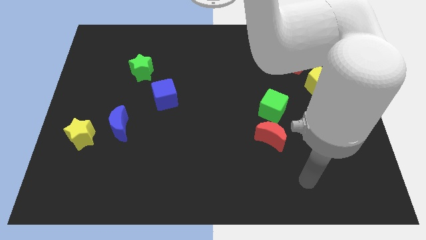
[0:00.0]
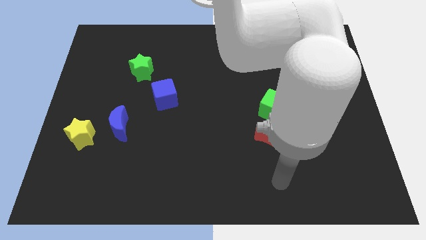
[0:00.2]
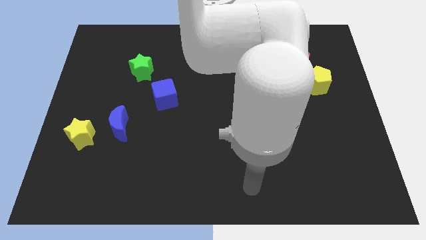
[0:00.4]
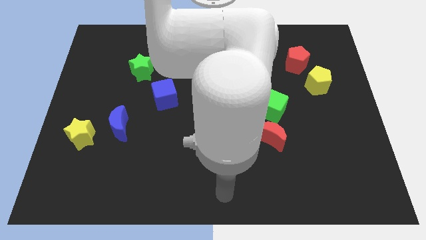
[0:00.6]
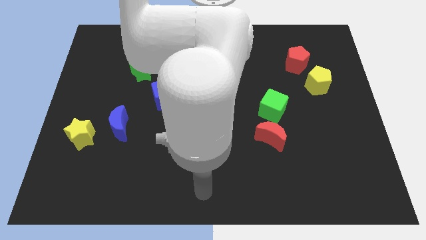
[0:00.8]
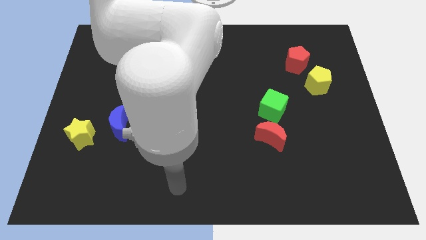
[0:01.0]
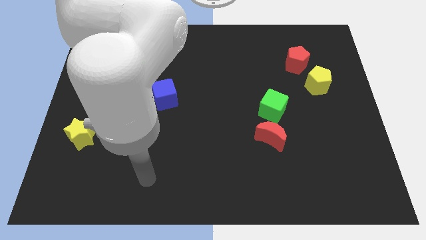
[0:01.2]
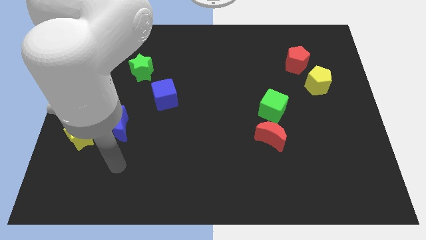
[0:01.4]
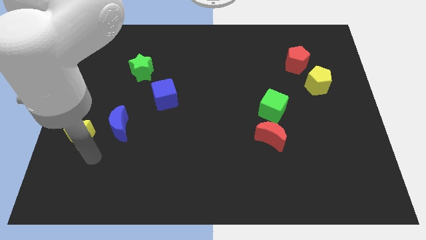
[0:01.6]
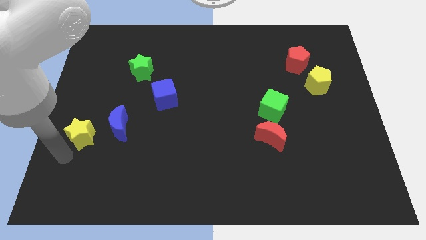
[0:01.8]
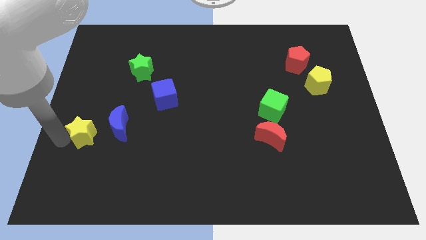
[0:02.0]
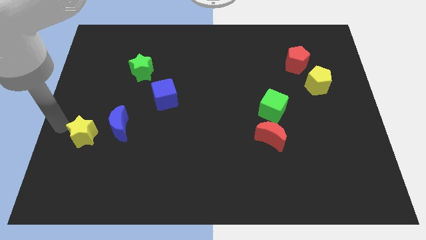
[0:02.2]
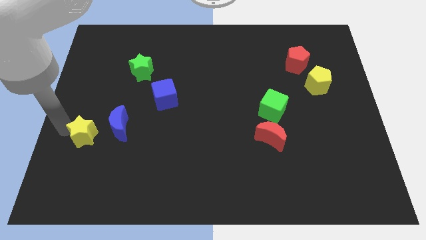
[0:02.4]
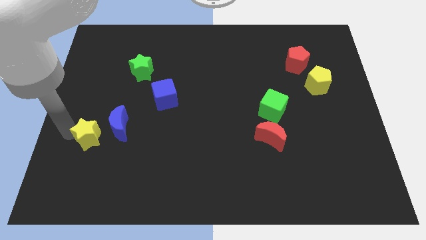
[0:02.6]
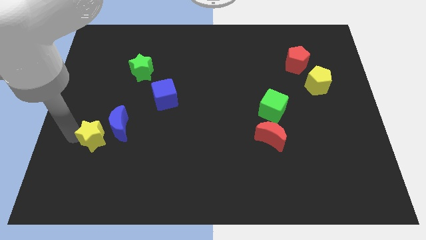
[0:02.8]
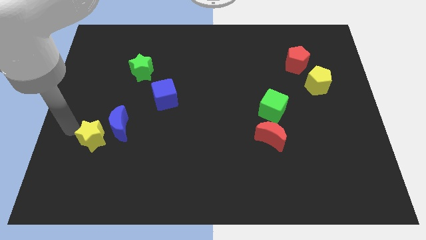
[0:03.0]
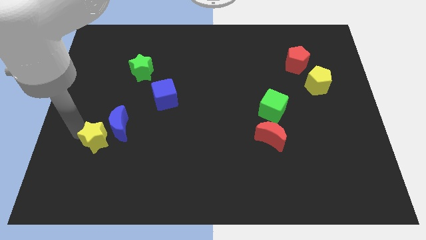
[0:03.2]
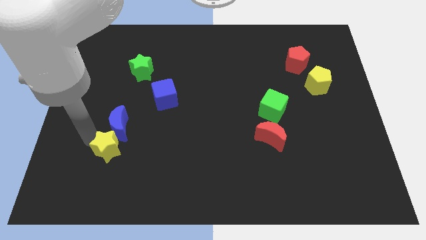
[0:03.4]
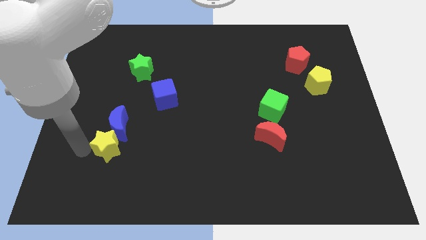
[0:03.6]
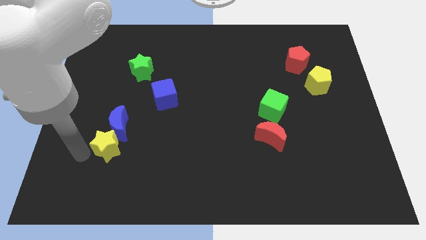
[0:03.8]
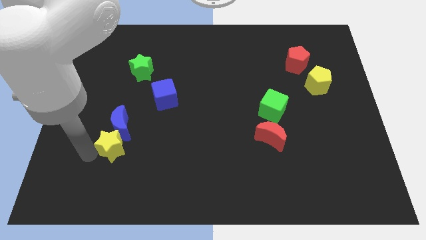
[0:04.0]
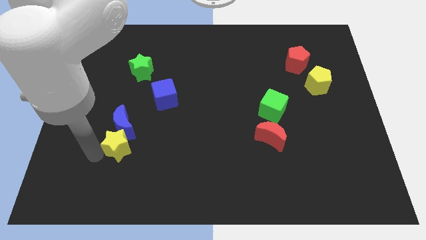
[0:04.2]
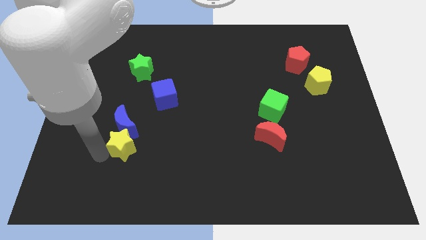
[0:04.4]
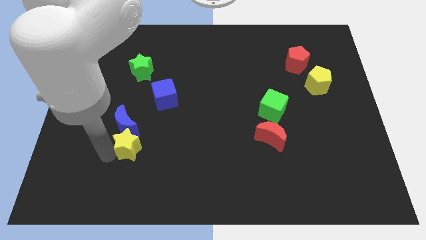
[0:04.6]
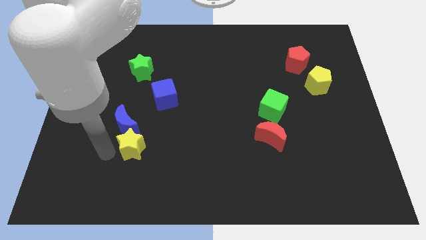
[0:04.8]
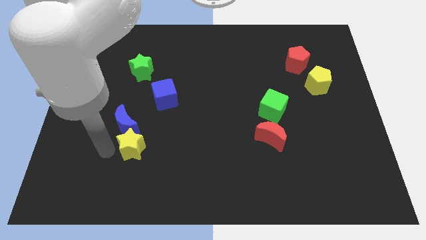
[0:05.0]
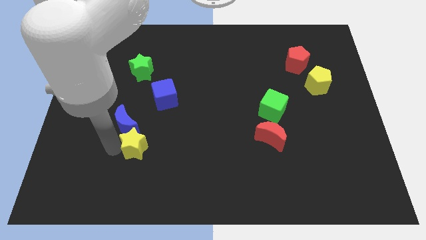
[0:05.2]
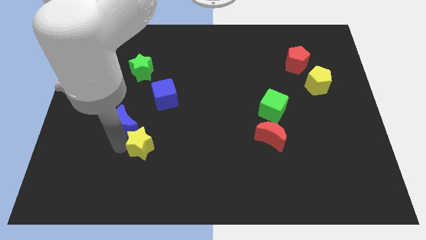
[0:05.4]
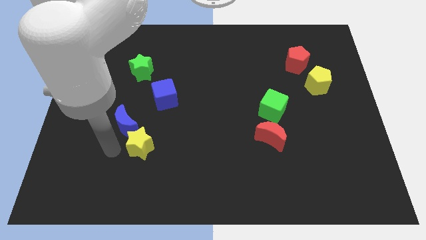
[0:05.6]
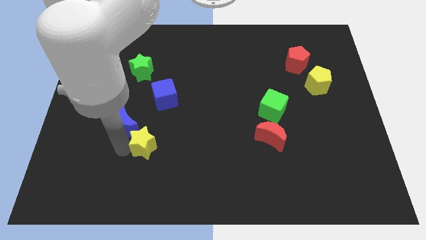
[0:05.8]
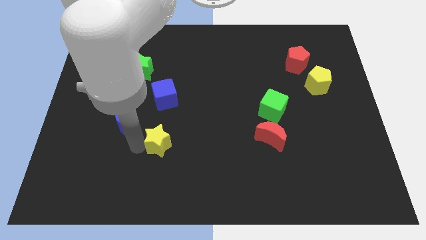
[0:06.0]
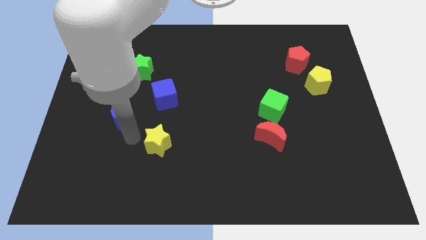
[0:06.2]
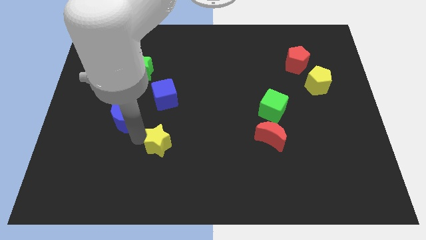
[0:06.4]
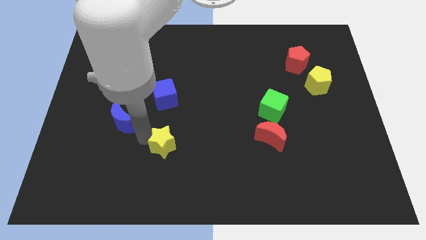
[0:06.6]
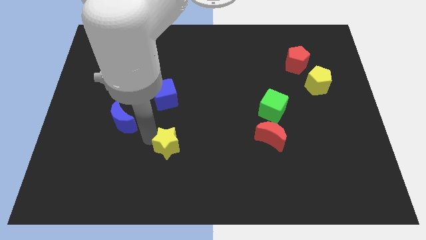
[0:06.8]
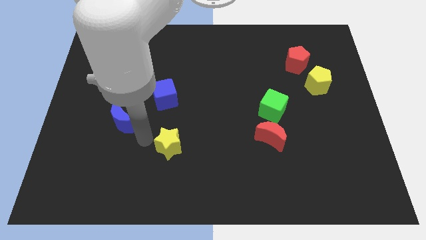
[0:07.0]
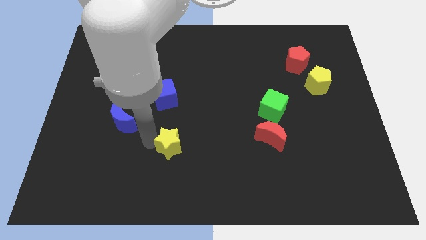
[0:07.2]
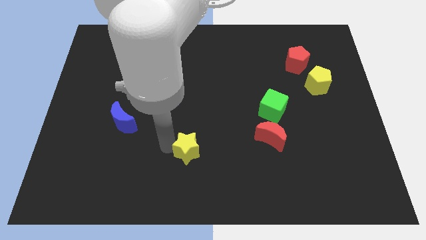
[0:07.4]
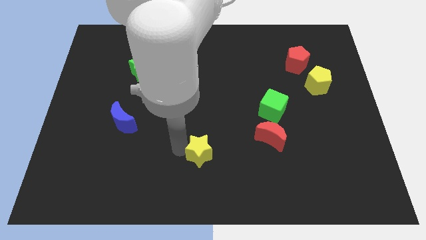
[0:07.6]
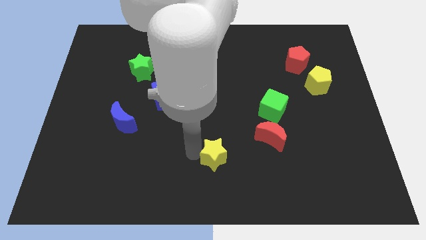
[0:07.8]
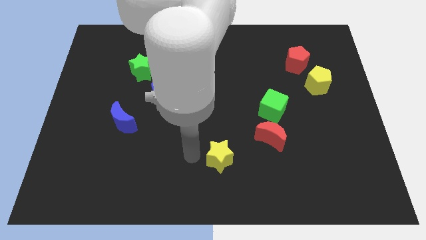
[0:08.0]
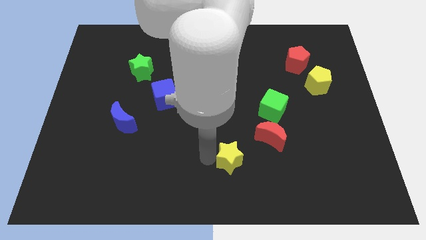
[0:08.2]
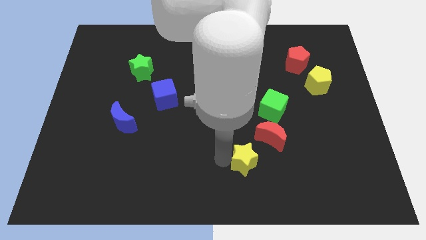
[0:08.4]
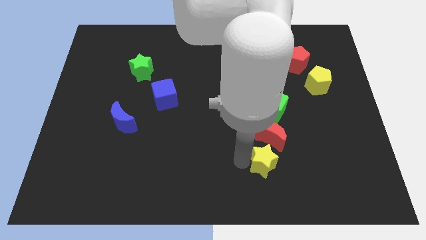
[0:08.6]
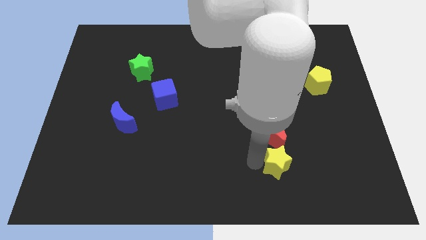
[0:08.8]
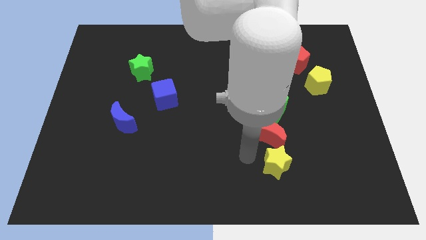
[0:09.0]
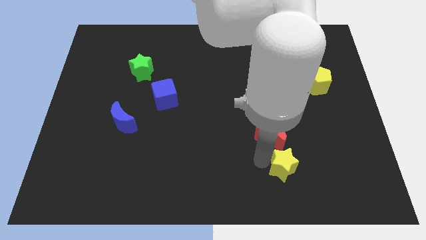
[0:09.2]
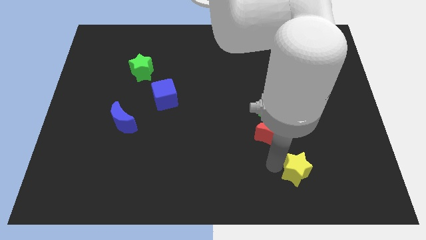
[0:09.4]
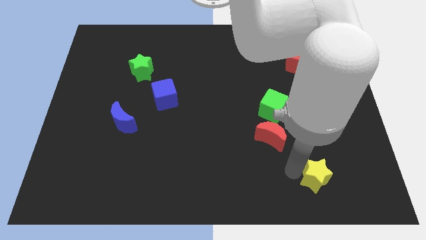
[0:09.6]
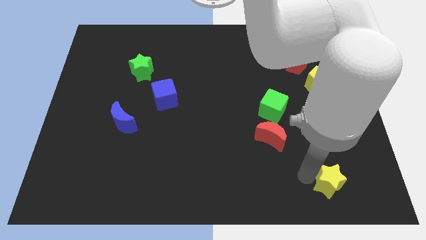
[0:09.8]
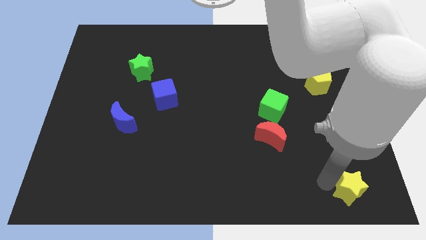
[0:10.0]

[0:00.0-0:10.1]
push the yellow star to the bottom right of the board
